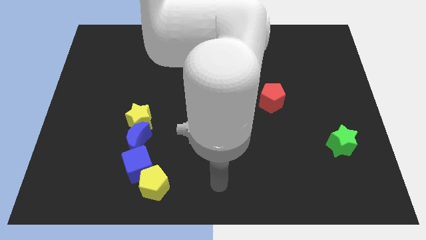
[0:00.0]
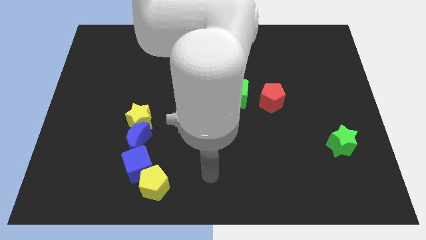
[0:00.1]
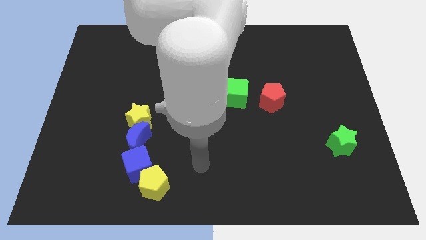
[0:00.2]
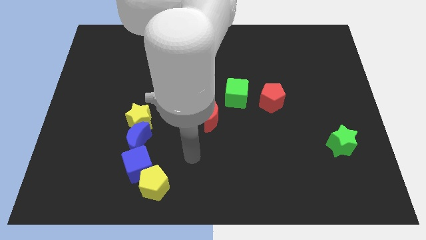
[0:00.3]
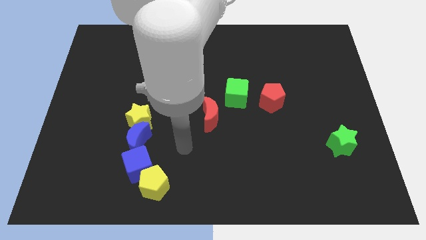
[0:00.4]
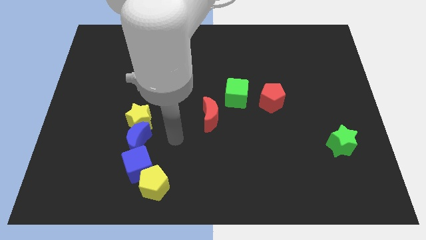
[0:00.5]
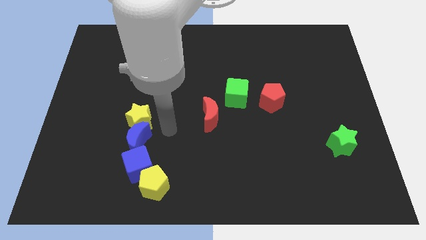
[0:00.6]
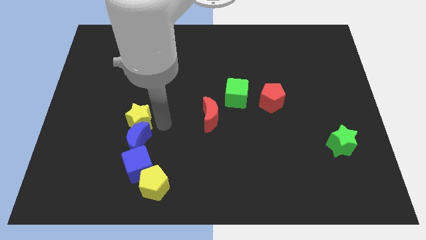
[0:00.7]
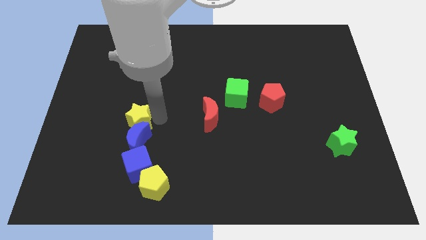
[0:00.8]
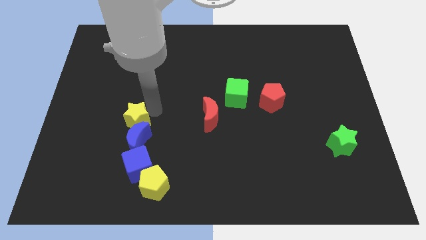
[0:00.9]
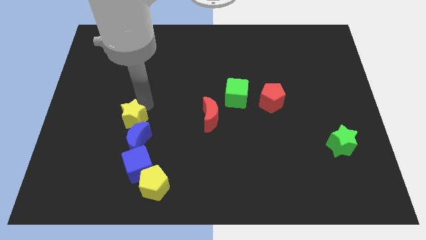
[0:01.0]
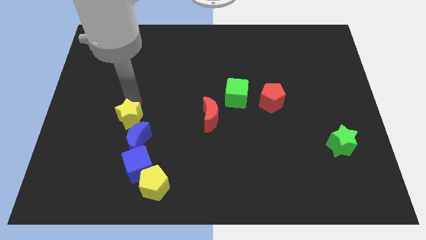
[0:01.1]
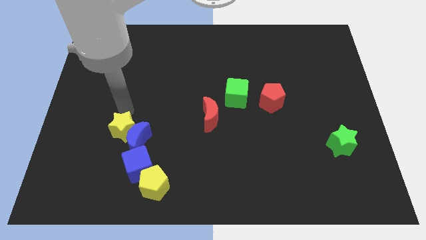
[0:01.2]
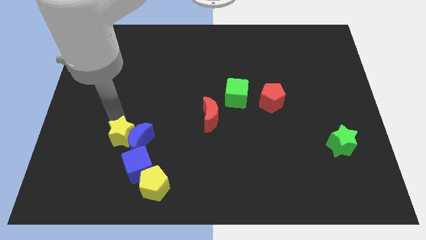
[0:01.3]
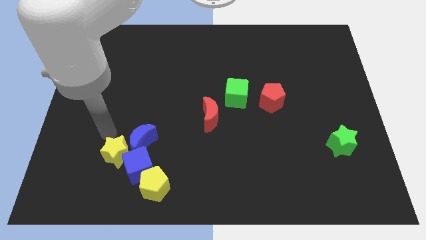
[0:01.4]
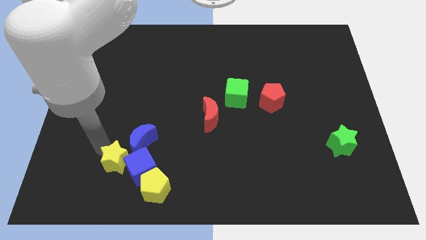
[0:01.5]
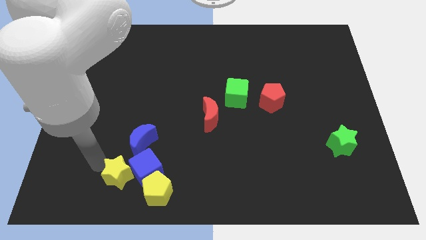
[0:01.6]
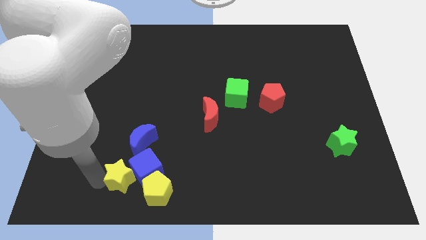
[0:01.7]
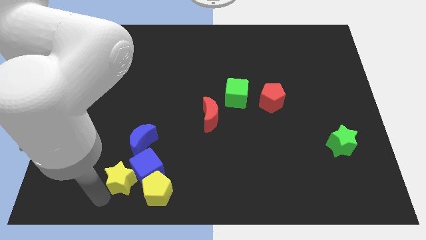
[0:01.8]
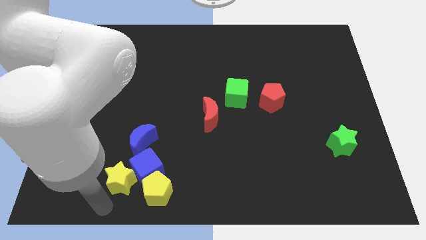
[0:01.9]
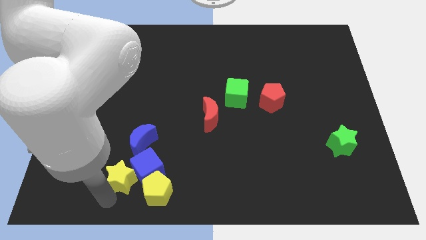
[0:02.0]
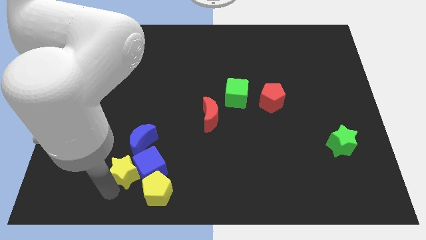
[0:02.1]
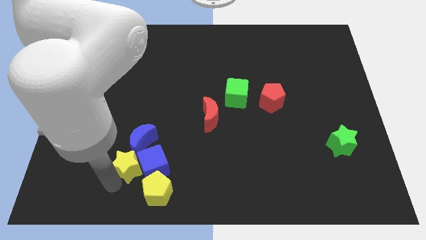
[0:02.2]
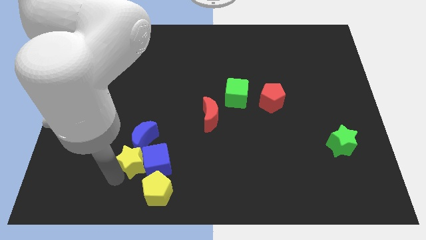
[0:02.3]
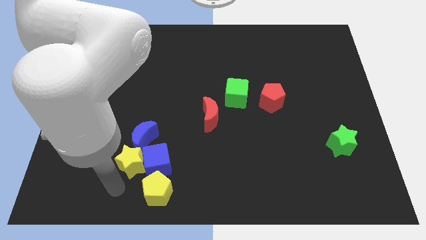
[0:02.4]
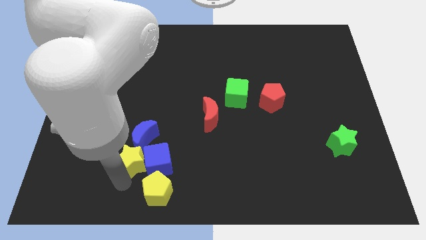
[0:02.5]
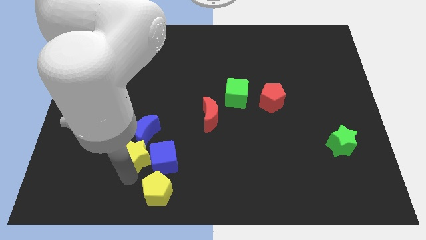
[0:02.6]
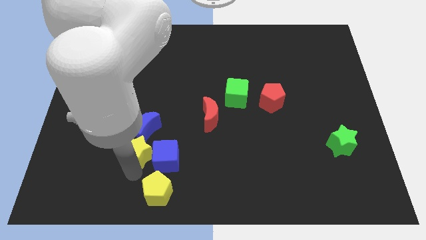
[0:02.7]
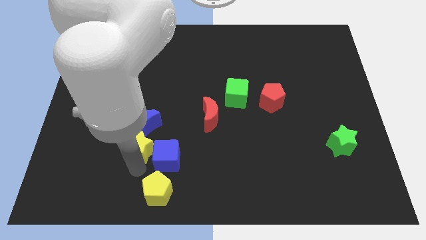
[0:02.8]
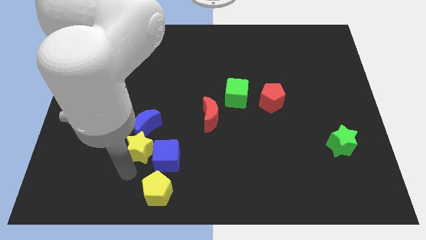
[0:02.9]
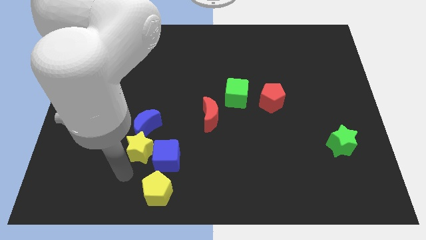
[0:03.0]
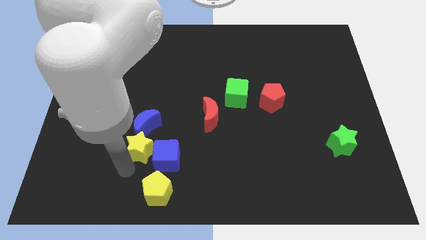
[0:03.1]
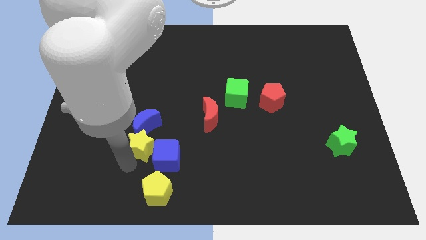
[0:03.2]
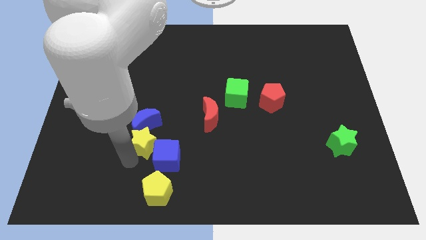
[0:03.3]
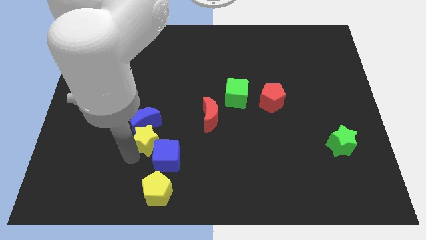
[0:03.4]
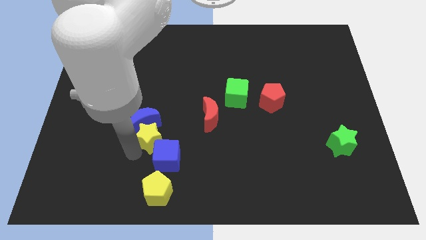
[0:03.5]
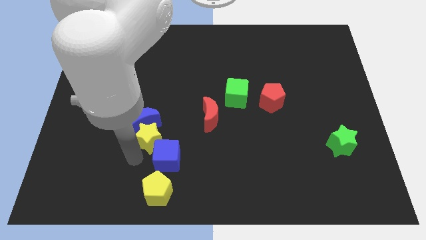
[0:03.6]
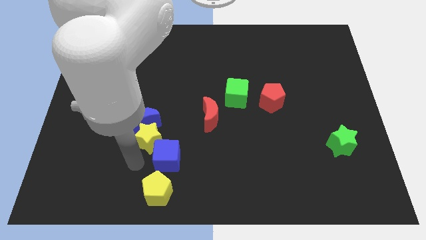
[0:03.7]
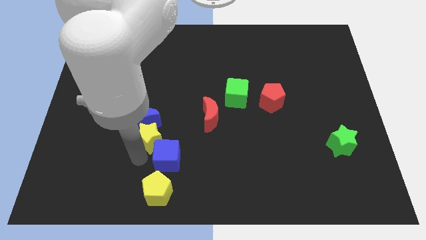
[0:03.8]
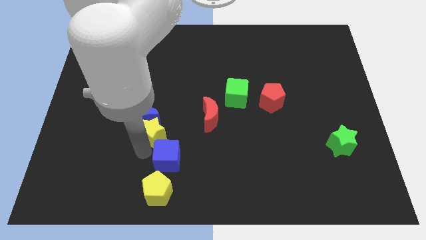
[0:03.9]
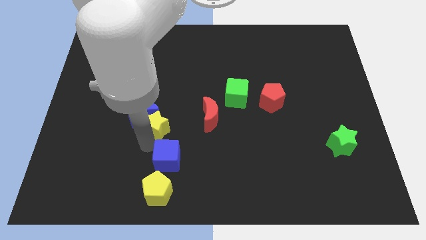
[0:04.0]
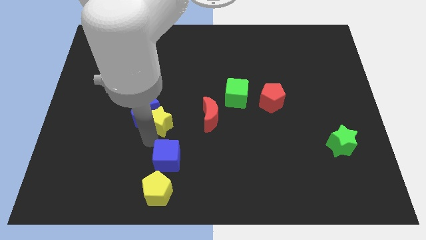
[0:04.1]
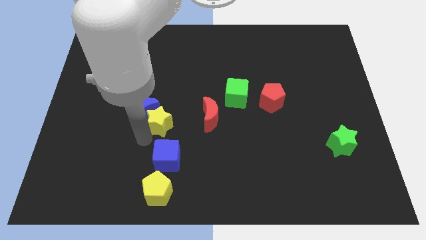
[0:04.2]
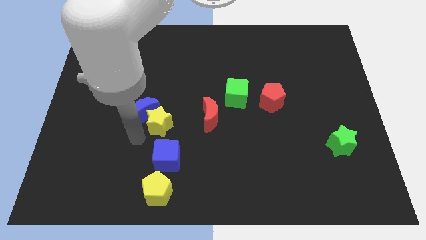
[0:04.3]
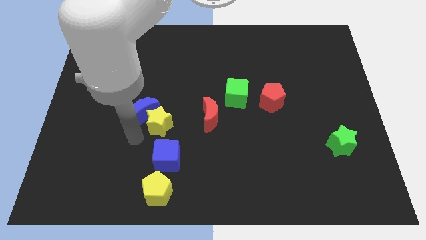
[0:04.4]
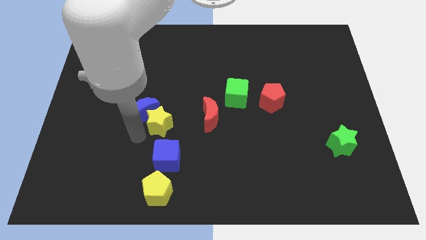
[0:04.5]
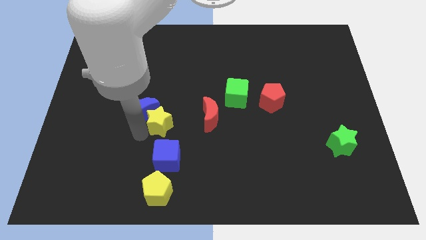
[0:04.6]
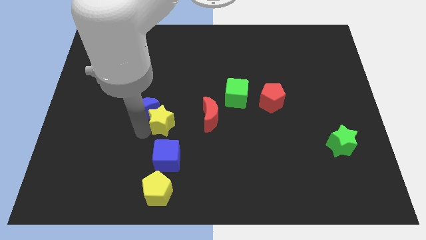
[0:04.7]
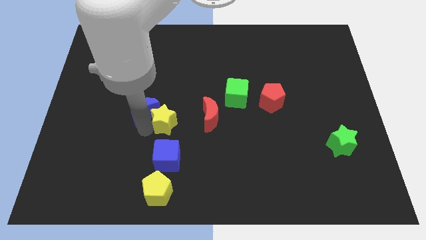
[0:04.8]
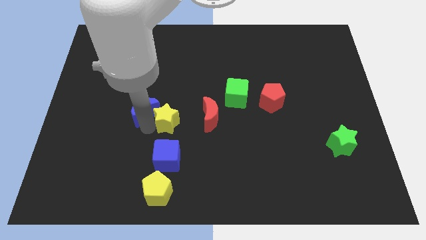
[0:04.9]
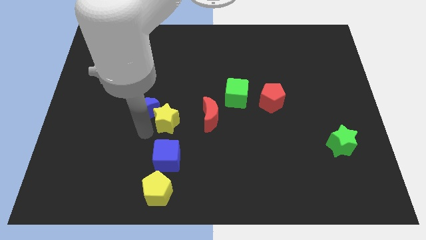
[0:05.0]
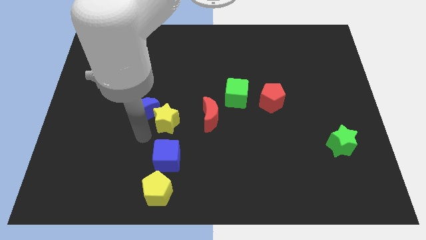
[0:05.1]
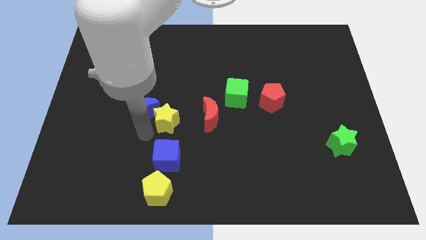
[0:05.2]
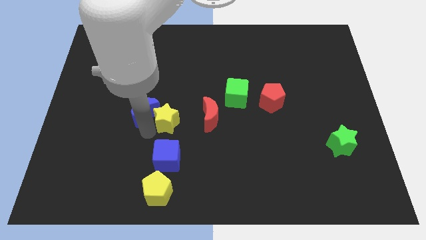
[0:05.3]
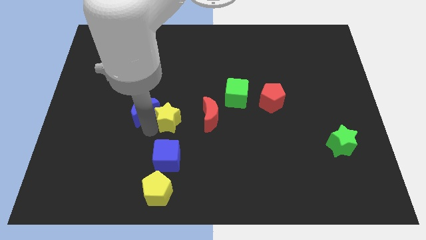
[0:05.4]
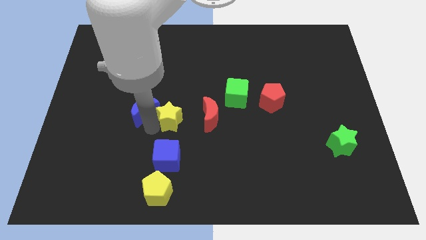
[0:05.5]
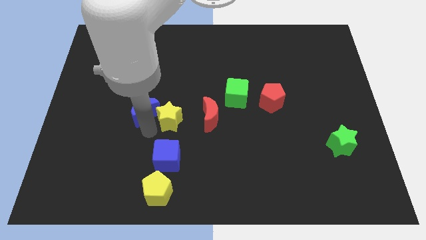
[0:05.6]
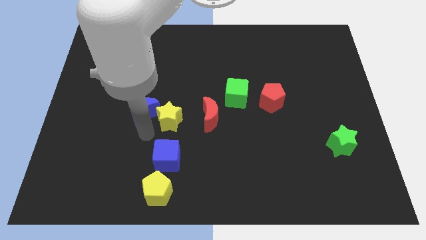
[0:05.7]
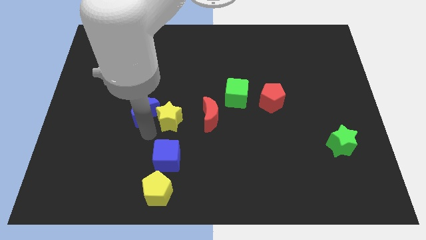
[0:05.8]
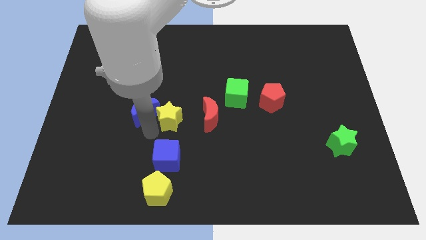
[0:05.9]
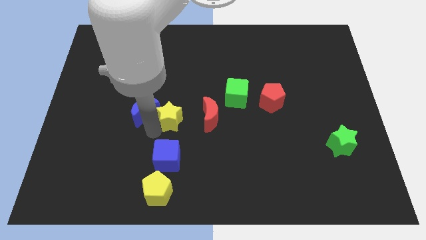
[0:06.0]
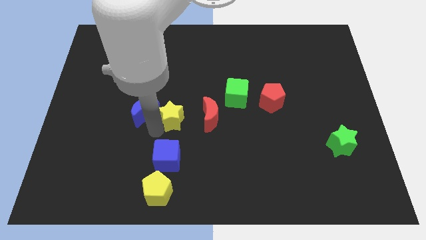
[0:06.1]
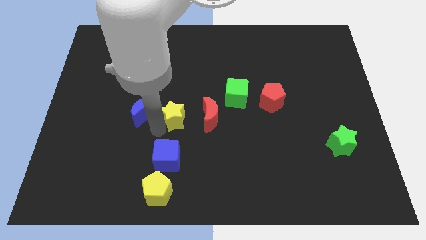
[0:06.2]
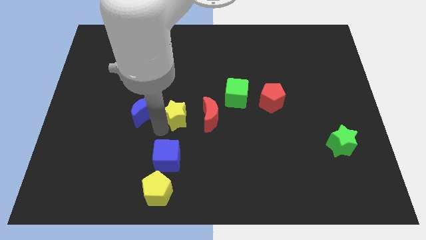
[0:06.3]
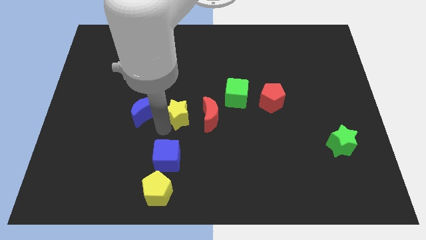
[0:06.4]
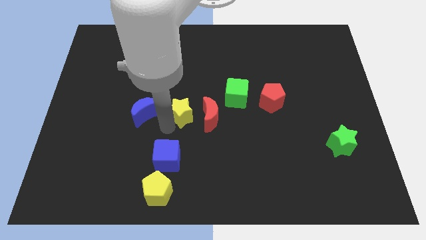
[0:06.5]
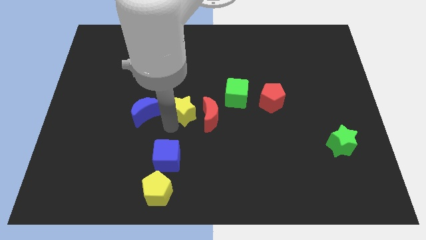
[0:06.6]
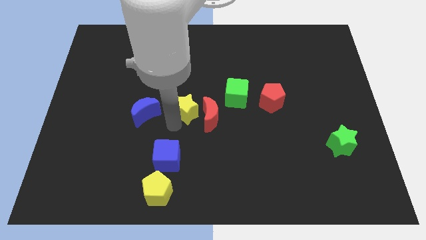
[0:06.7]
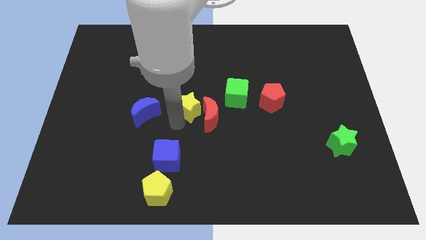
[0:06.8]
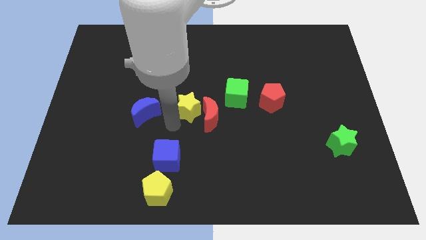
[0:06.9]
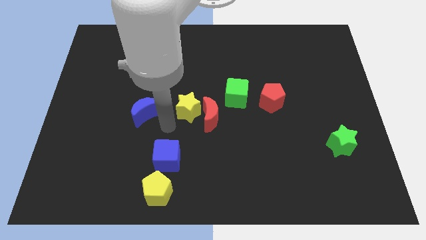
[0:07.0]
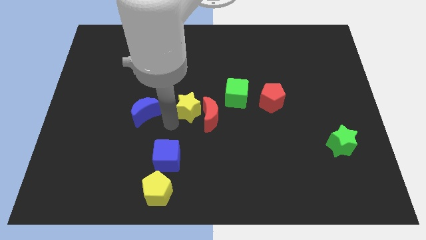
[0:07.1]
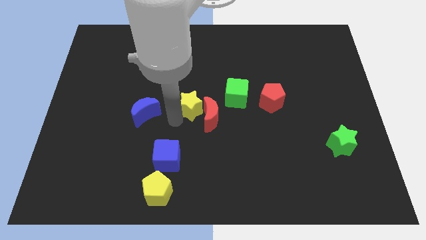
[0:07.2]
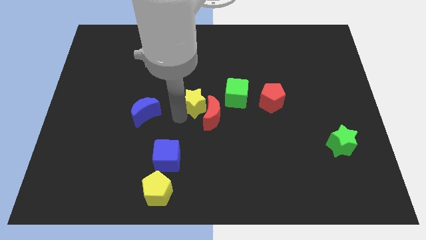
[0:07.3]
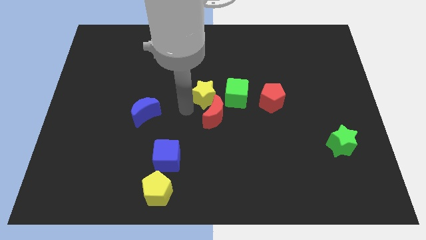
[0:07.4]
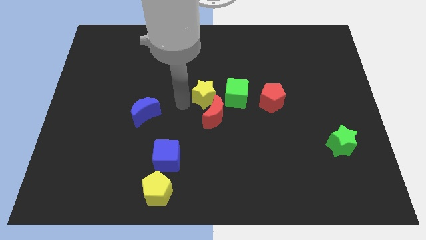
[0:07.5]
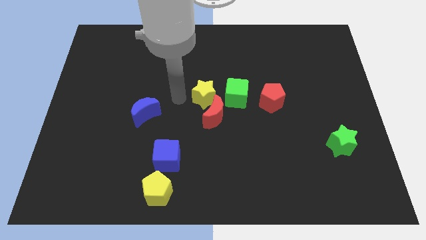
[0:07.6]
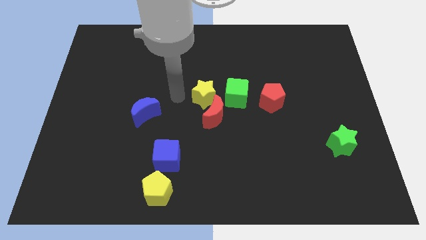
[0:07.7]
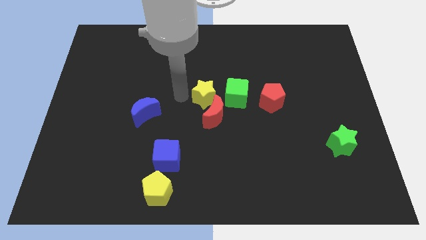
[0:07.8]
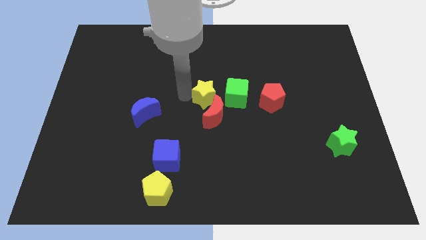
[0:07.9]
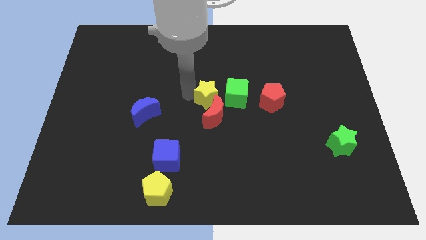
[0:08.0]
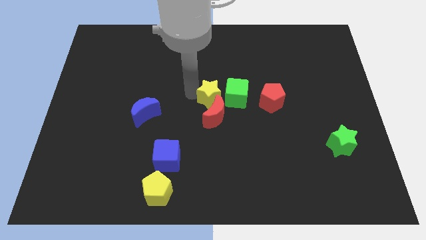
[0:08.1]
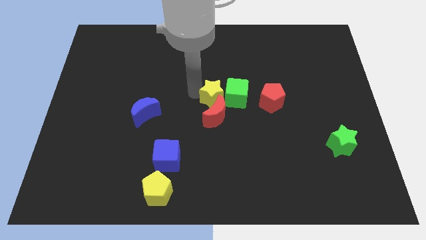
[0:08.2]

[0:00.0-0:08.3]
move the yellow star towards the green cube
